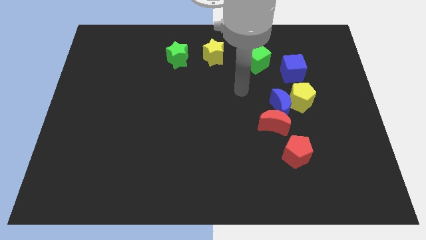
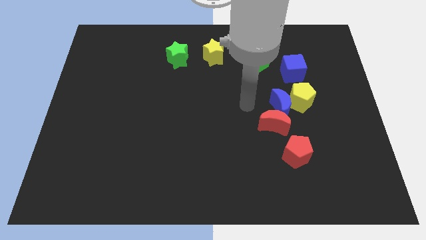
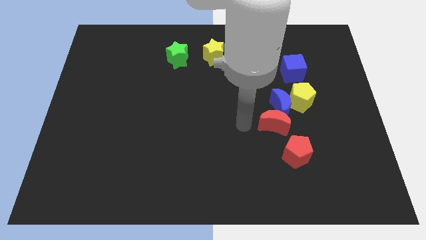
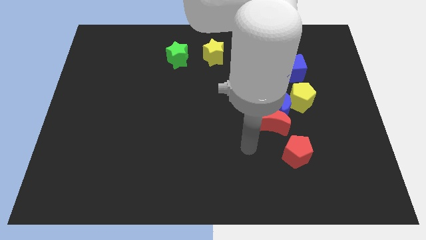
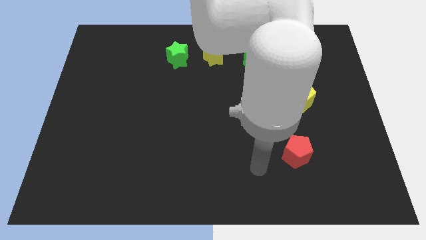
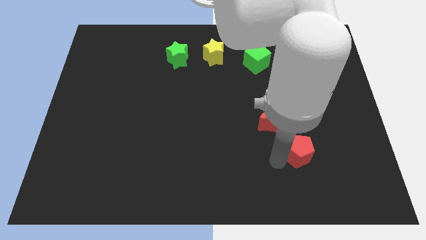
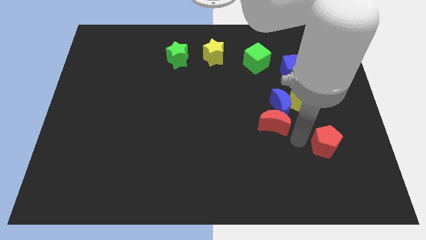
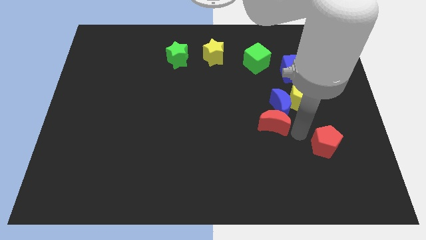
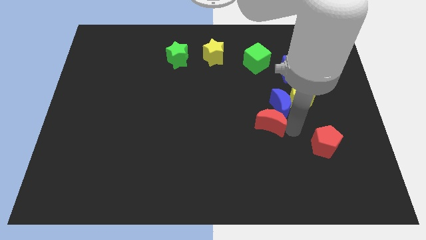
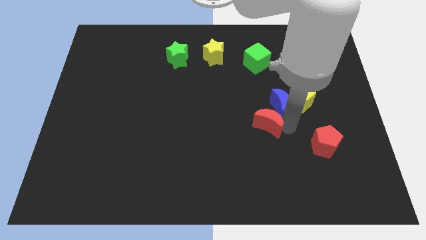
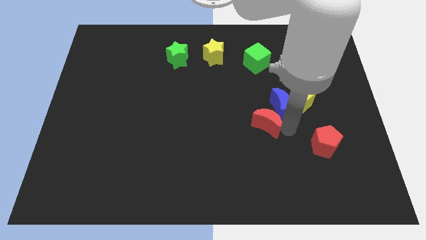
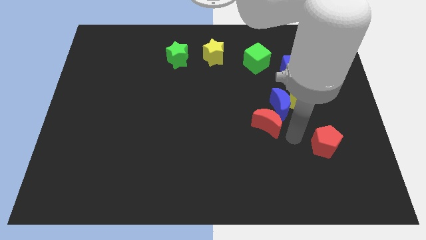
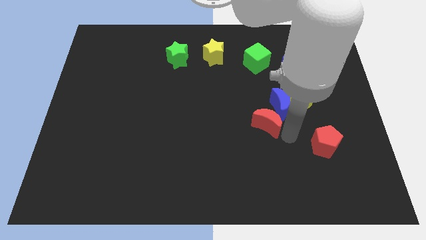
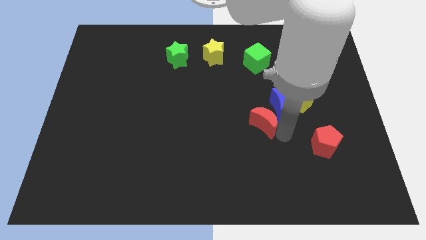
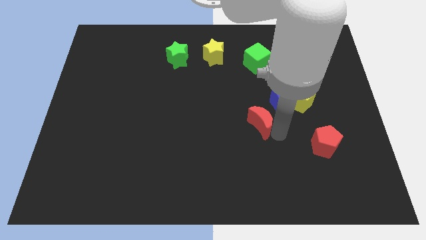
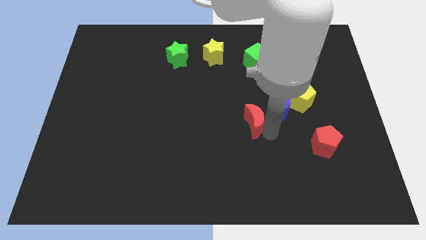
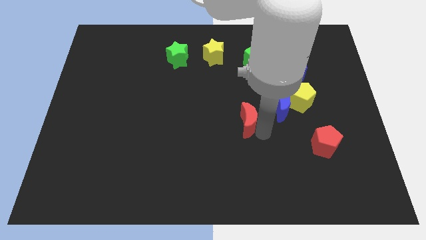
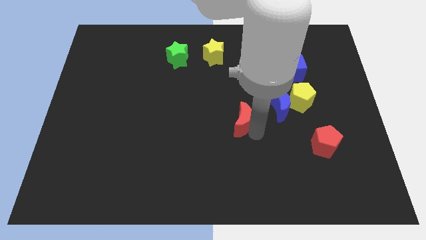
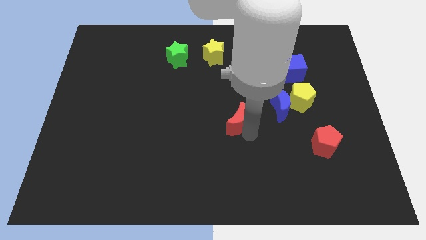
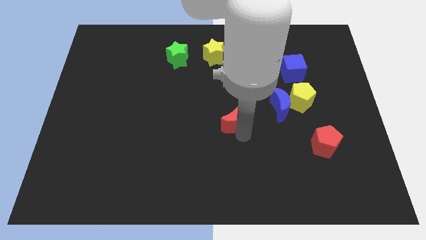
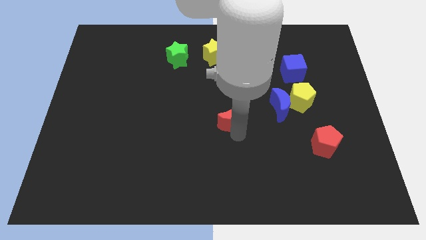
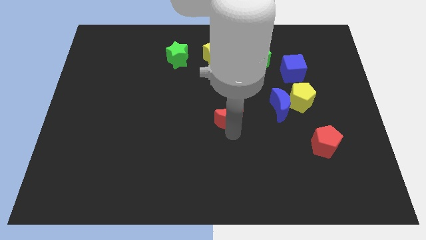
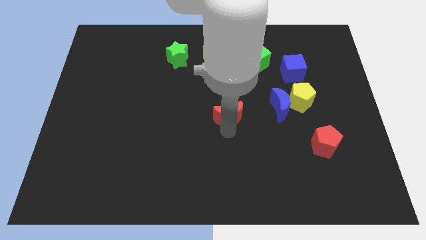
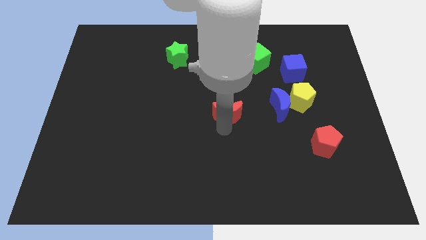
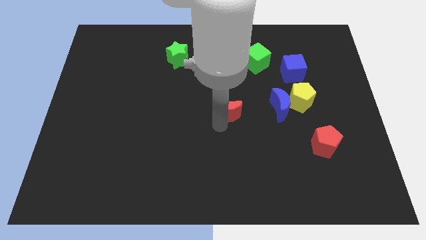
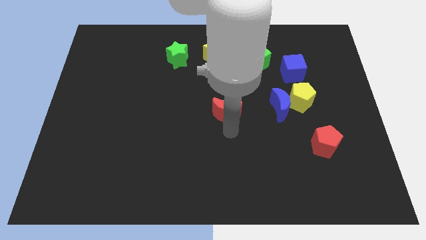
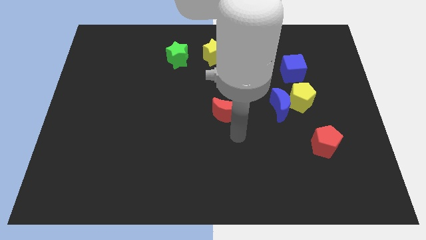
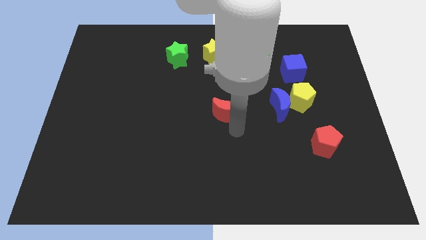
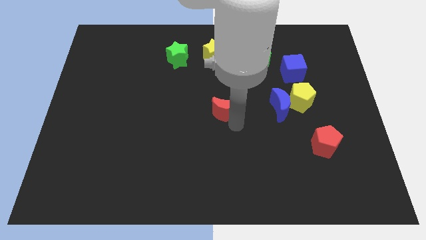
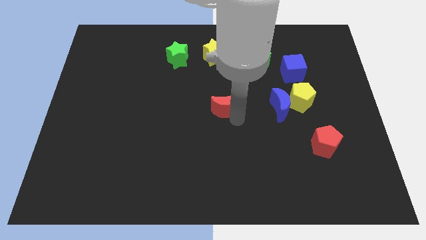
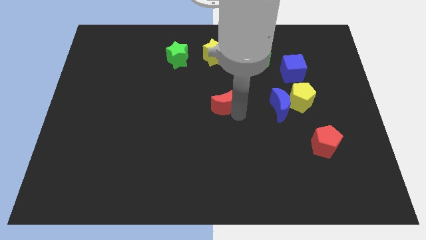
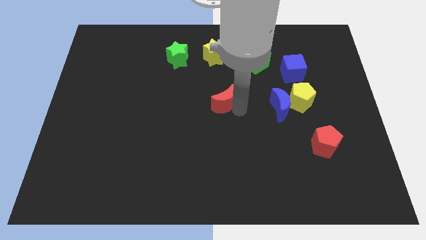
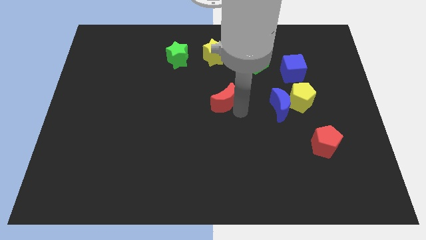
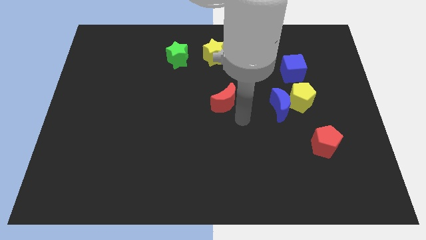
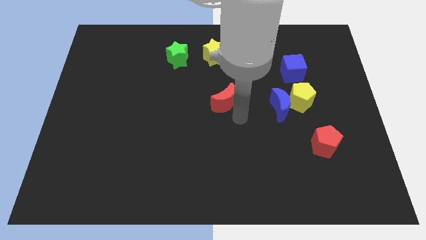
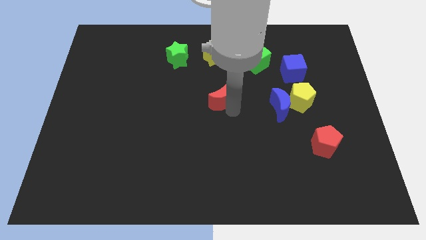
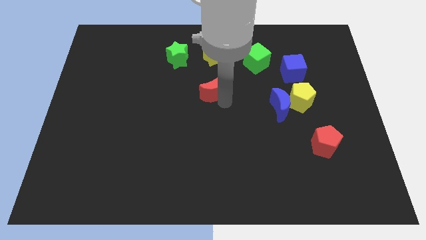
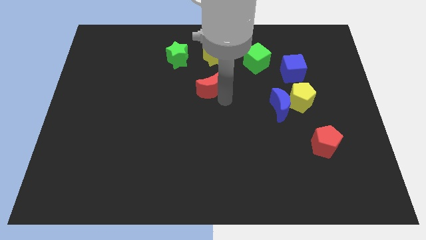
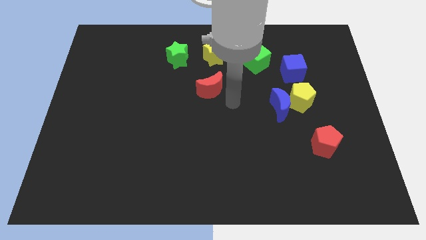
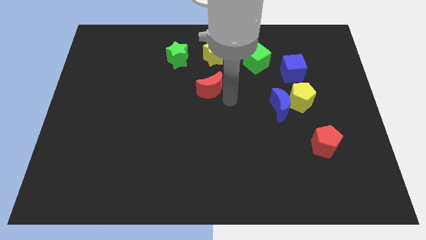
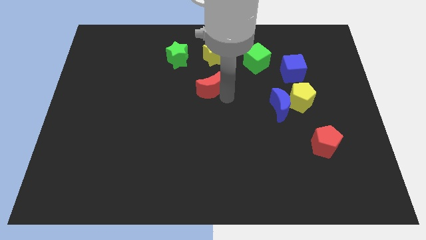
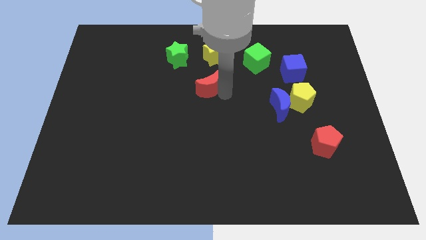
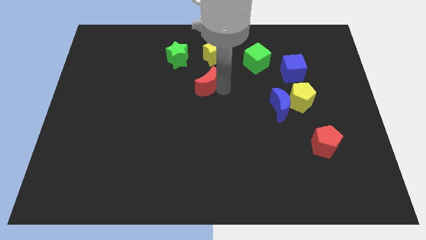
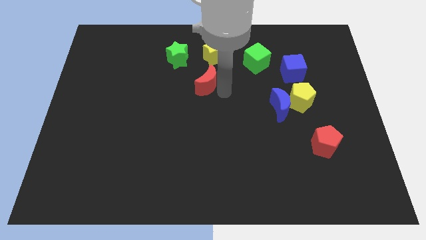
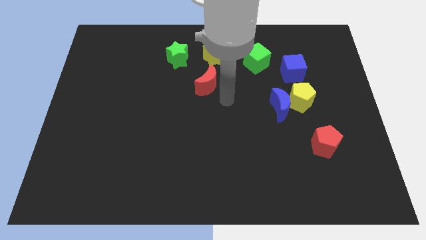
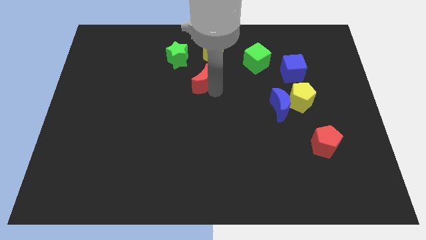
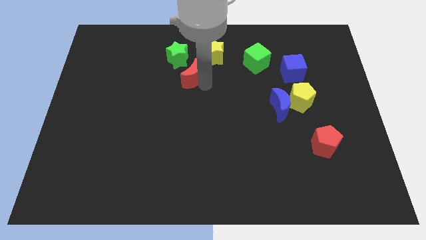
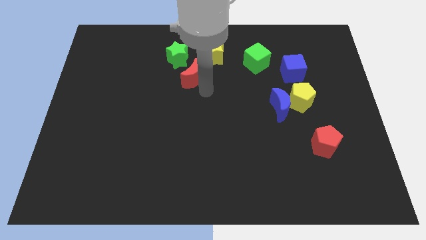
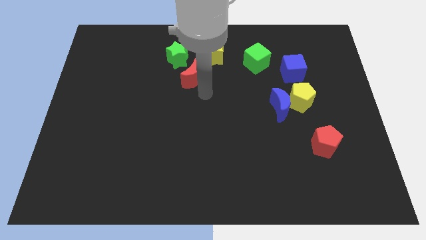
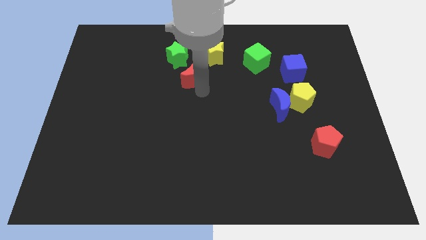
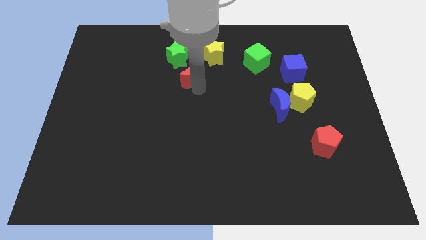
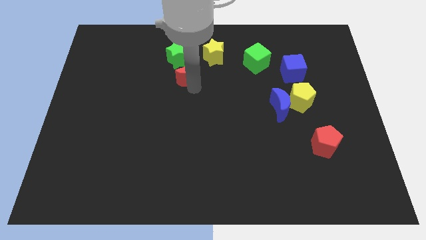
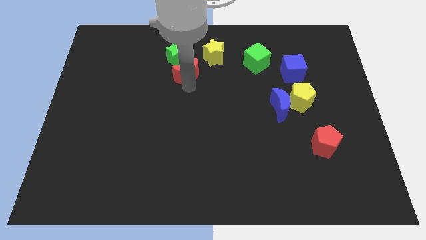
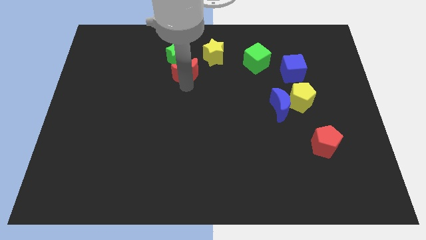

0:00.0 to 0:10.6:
move the red moon towards the green star

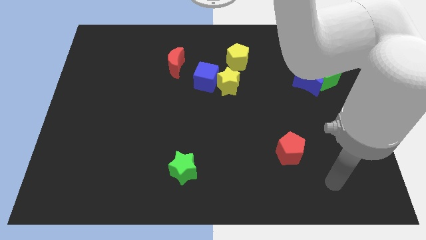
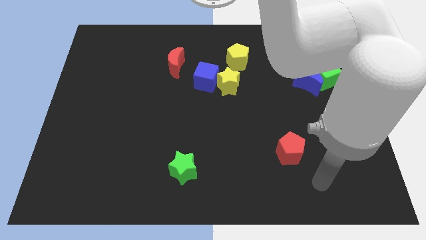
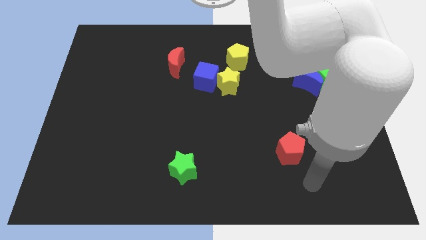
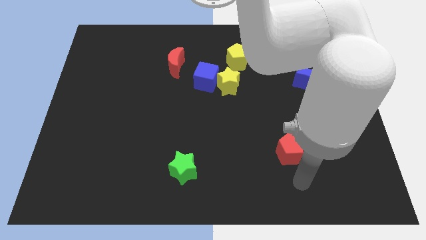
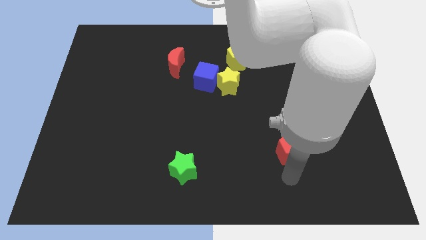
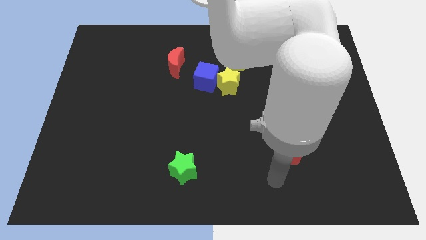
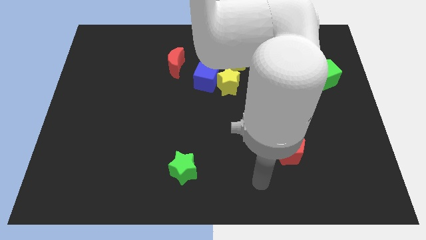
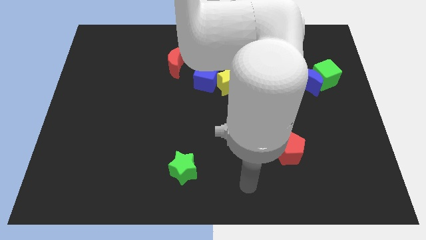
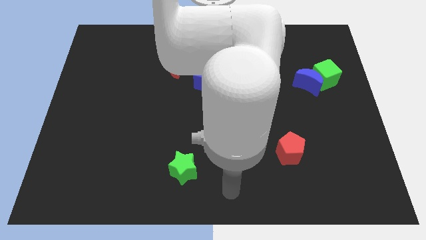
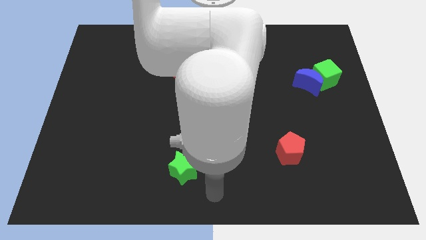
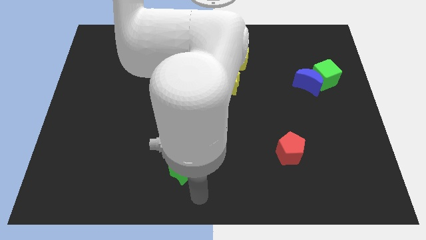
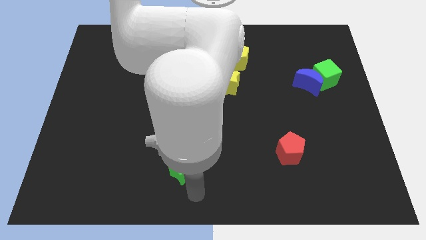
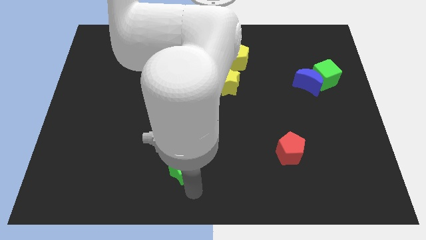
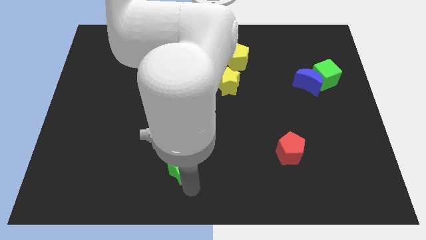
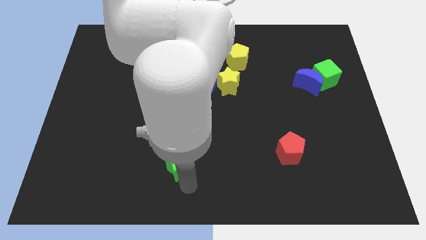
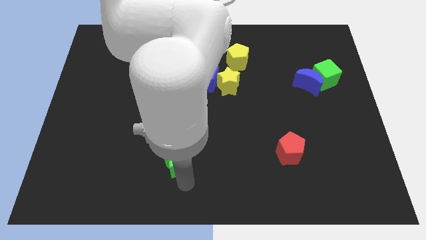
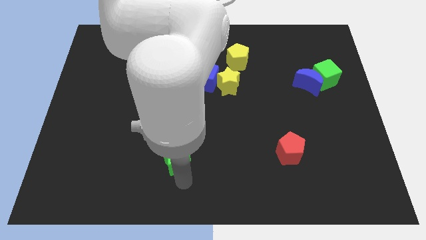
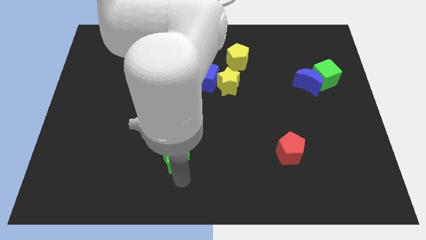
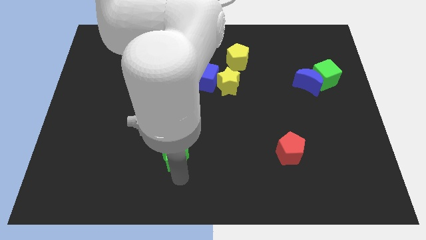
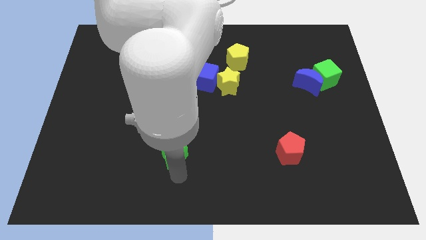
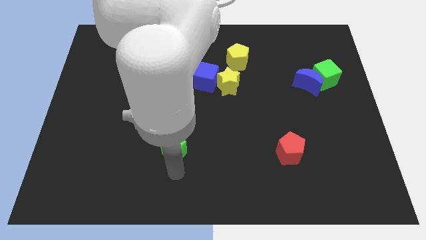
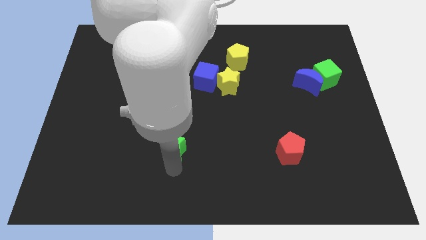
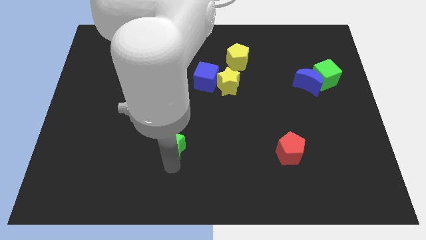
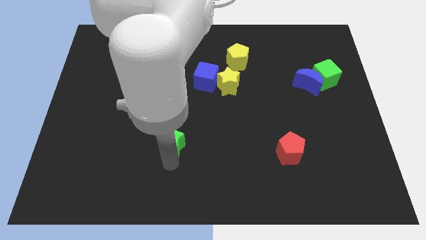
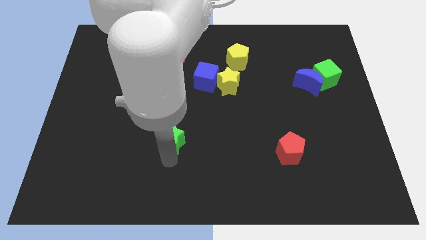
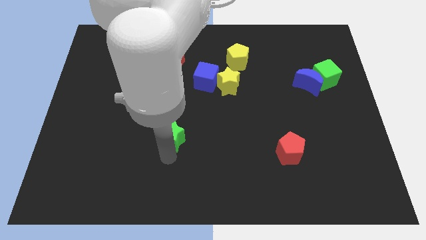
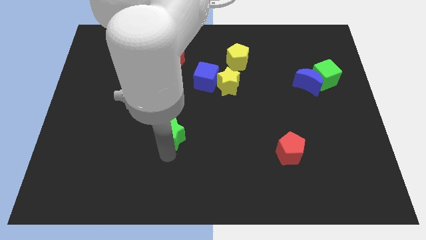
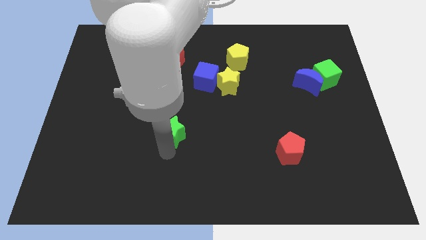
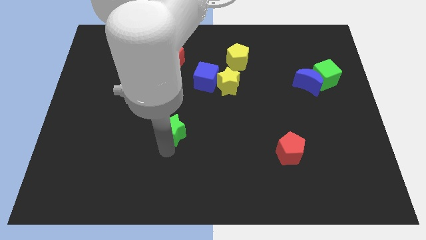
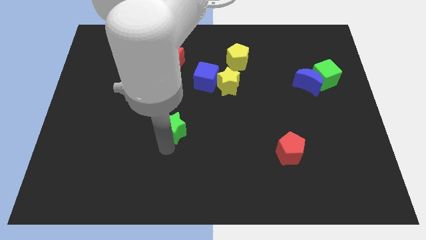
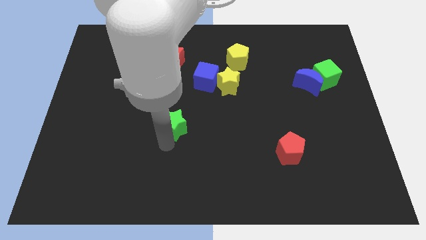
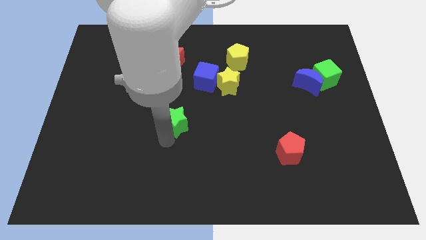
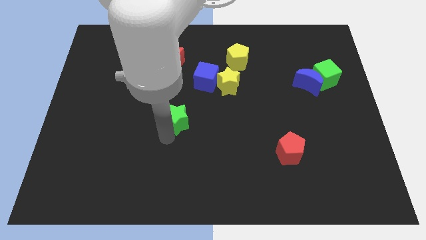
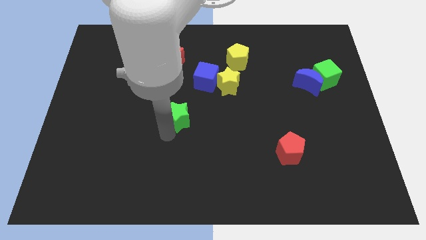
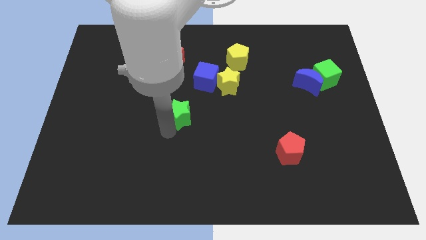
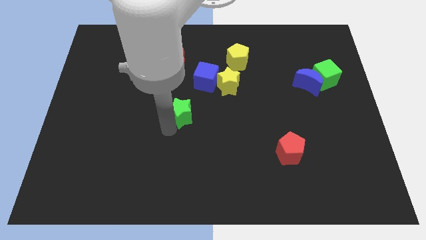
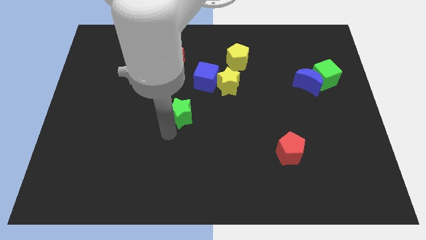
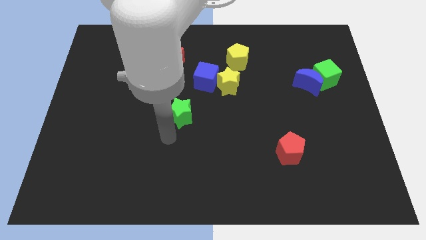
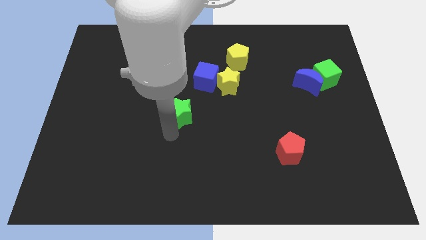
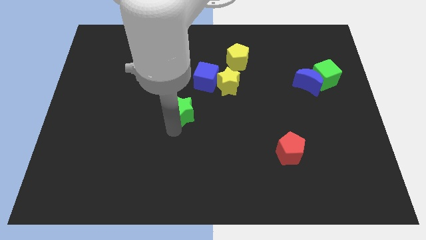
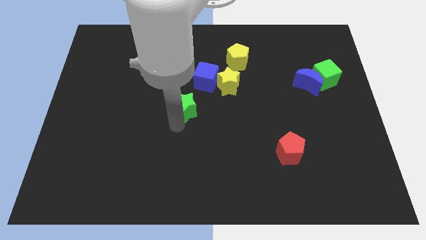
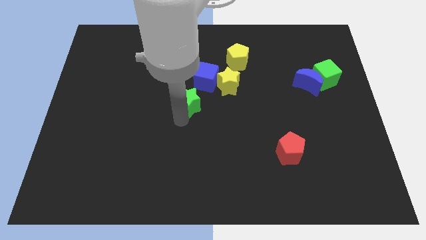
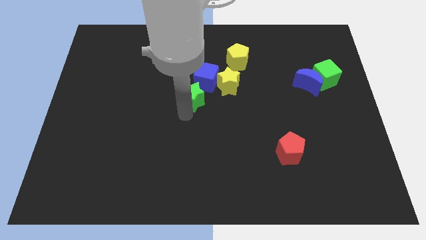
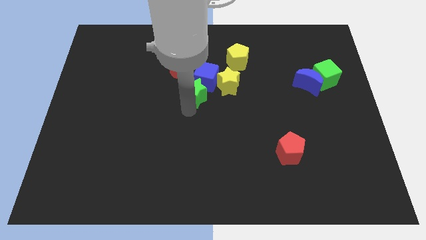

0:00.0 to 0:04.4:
move the green star next to the blue cube
